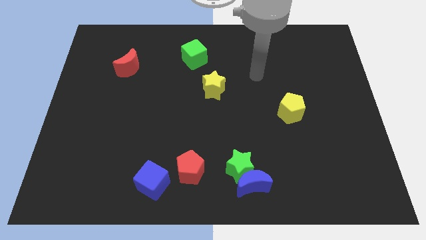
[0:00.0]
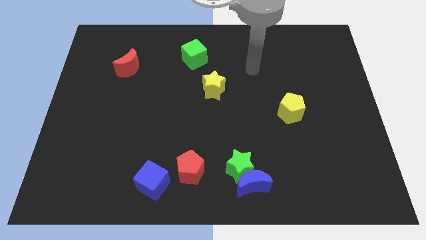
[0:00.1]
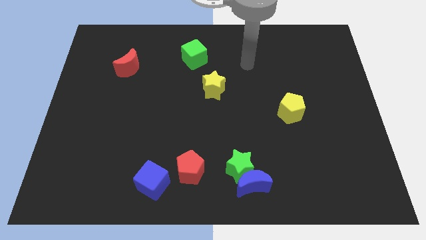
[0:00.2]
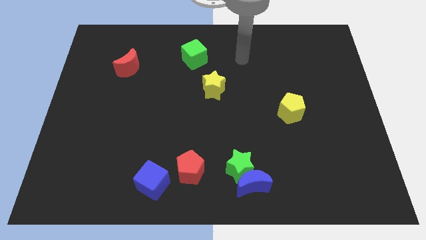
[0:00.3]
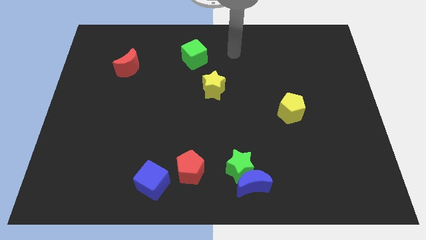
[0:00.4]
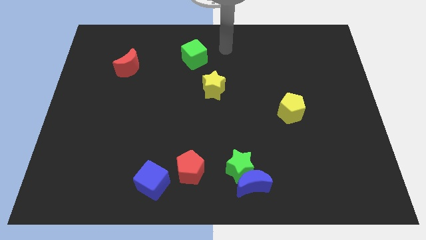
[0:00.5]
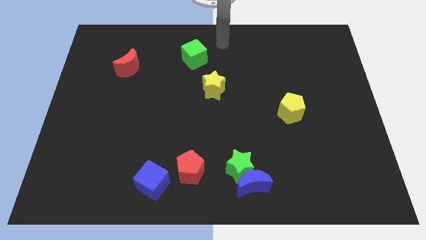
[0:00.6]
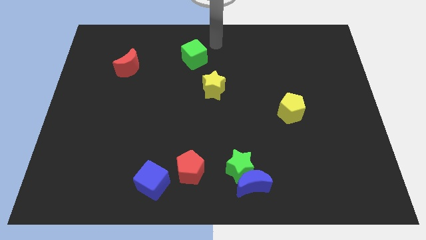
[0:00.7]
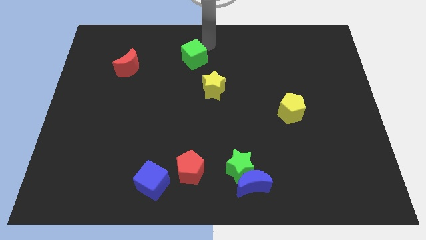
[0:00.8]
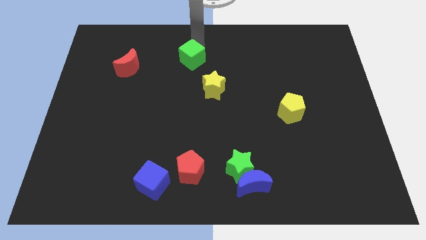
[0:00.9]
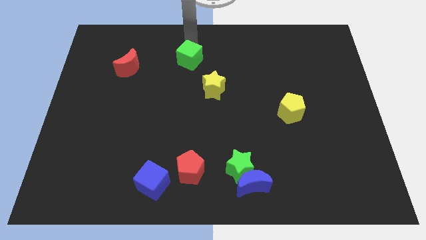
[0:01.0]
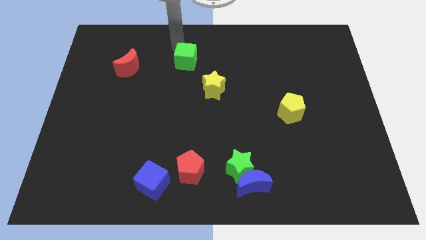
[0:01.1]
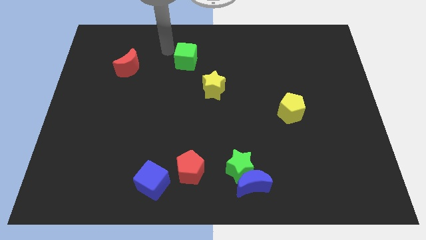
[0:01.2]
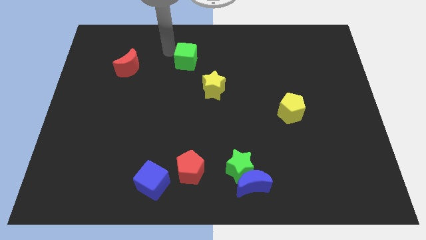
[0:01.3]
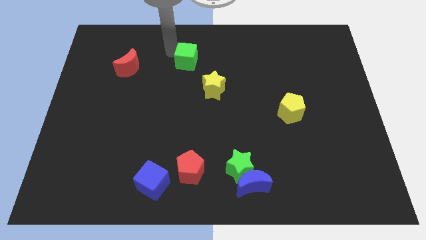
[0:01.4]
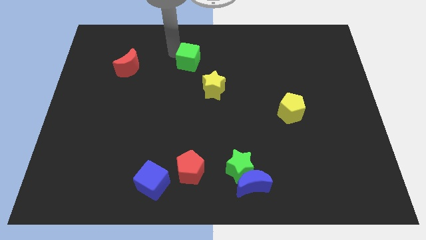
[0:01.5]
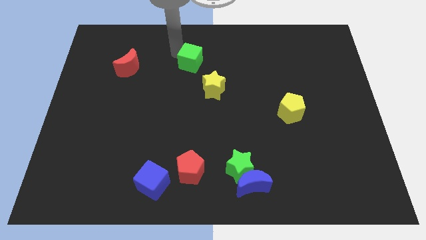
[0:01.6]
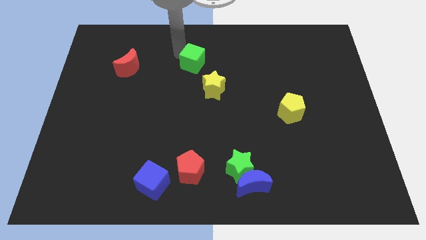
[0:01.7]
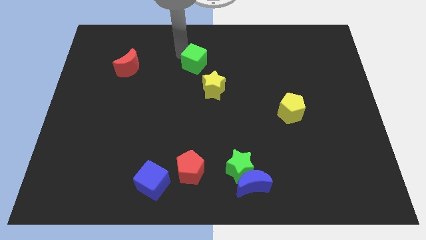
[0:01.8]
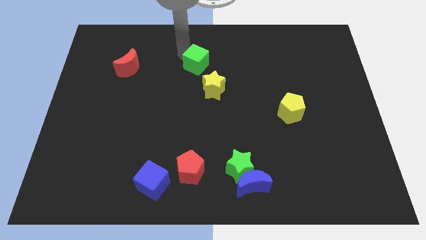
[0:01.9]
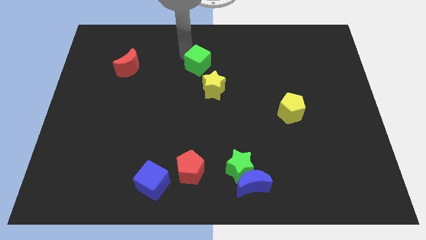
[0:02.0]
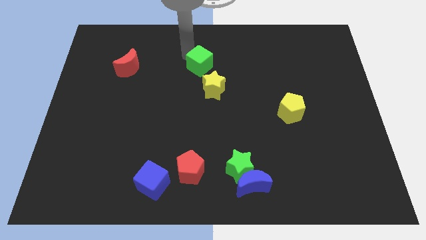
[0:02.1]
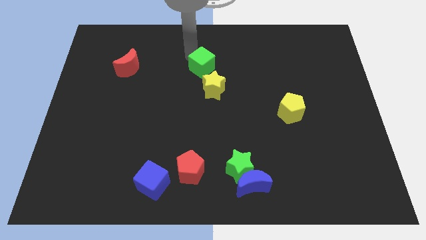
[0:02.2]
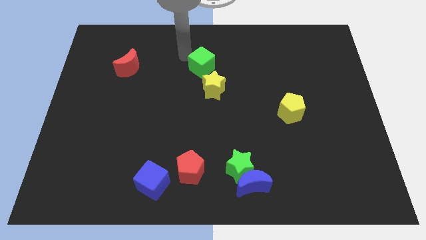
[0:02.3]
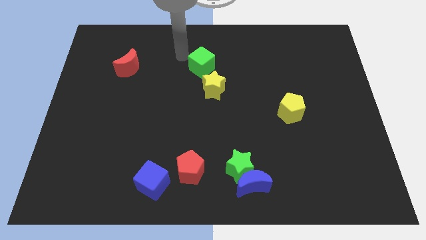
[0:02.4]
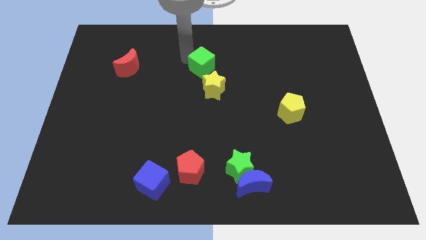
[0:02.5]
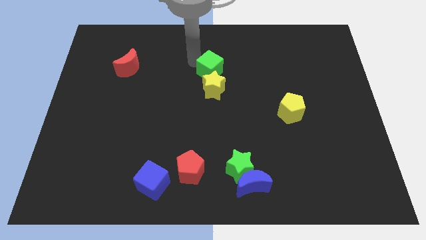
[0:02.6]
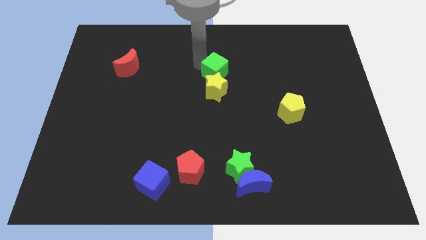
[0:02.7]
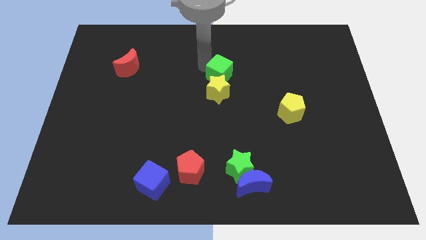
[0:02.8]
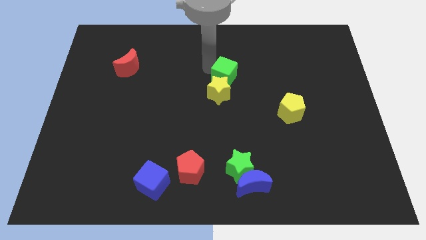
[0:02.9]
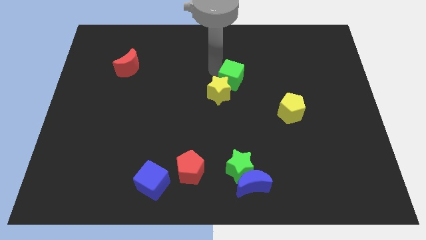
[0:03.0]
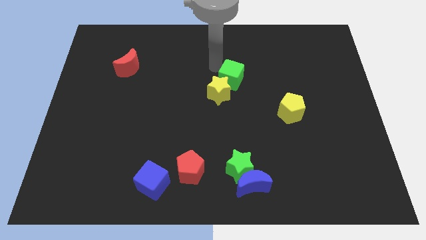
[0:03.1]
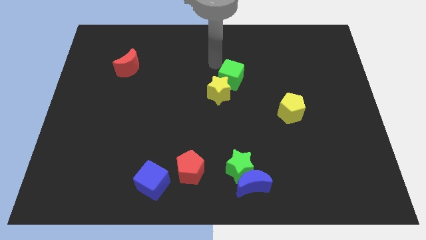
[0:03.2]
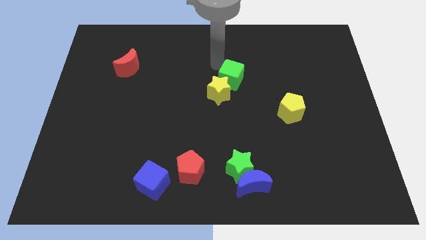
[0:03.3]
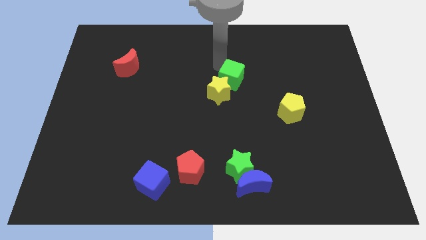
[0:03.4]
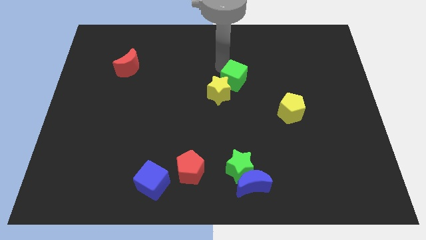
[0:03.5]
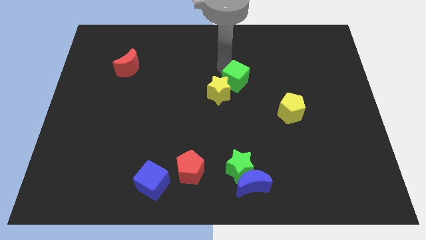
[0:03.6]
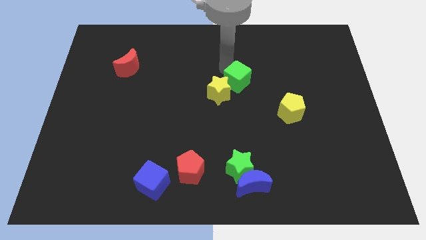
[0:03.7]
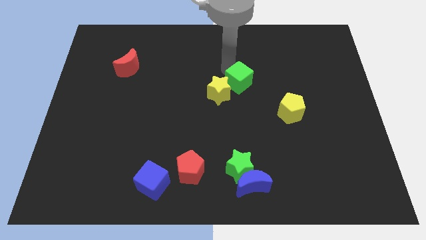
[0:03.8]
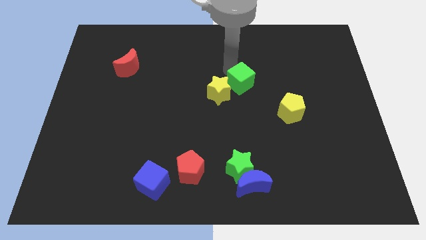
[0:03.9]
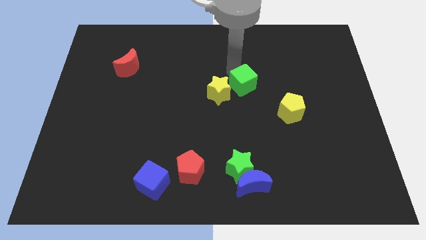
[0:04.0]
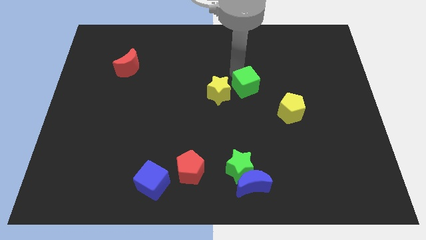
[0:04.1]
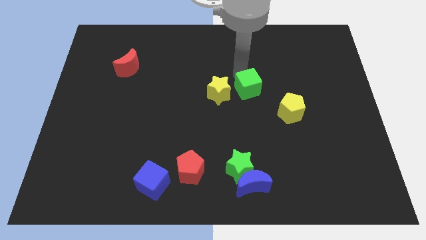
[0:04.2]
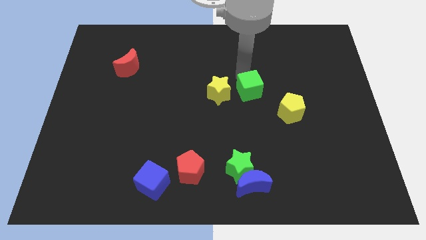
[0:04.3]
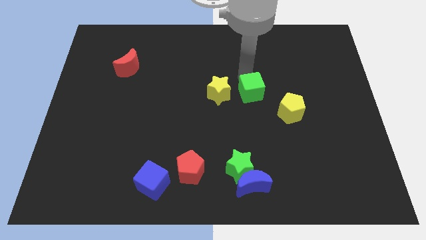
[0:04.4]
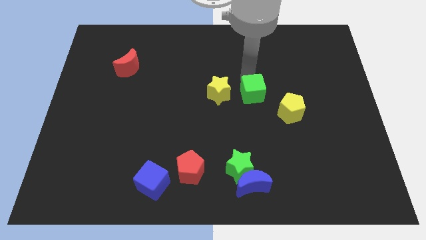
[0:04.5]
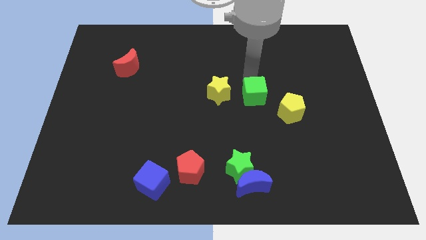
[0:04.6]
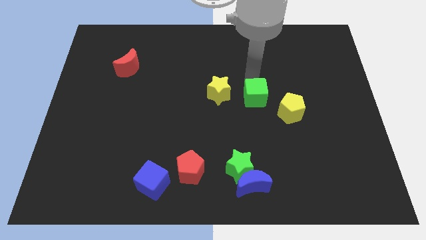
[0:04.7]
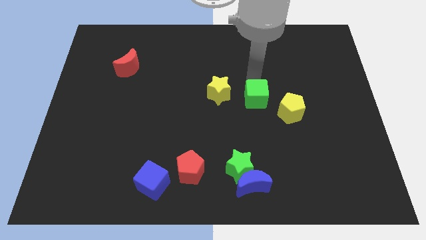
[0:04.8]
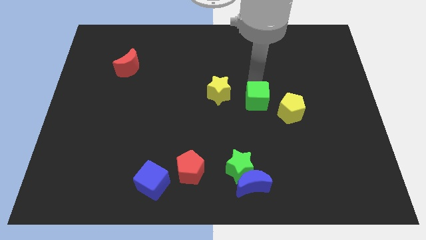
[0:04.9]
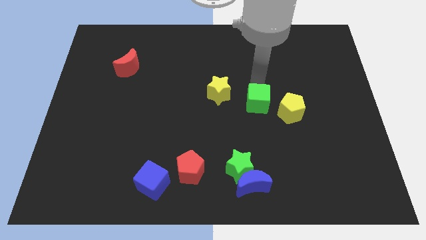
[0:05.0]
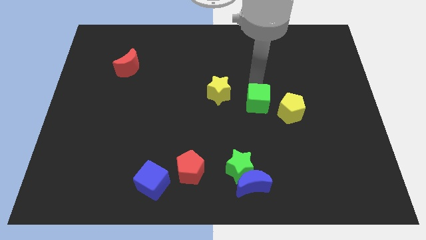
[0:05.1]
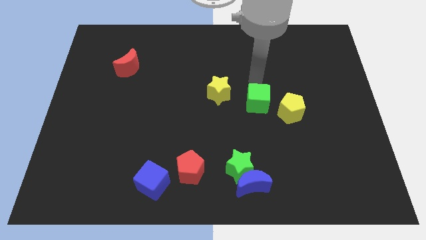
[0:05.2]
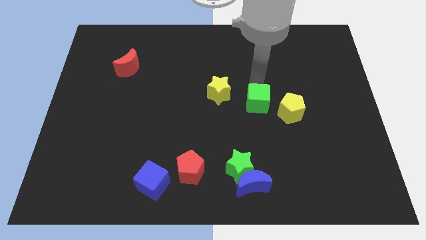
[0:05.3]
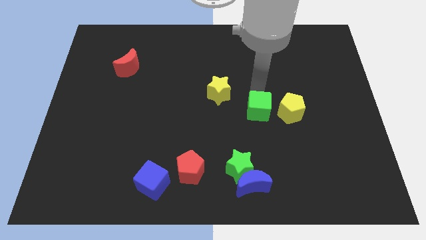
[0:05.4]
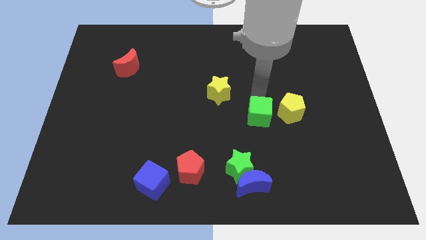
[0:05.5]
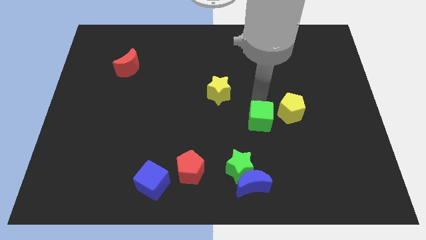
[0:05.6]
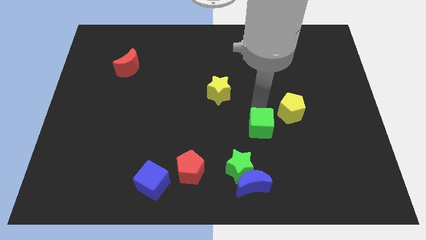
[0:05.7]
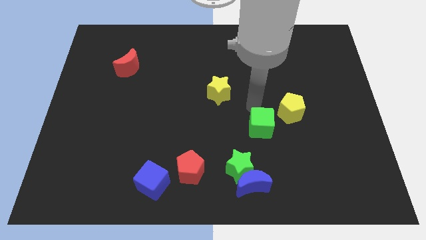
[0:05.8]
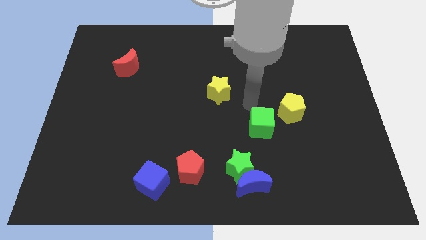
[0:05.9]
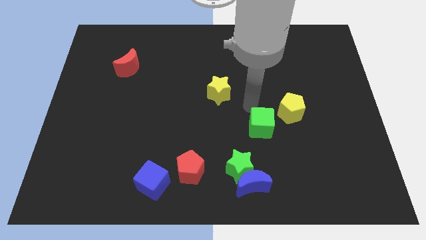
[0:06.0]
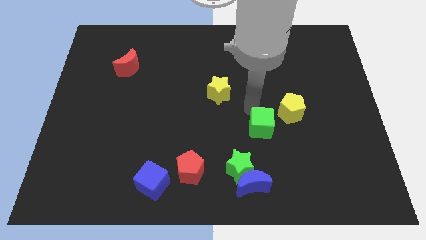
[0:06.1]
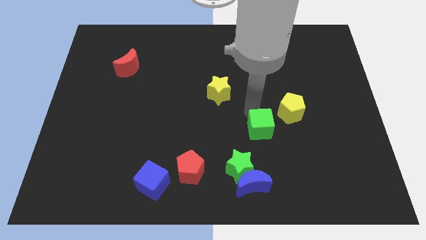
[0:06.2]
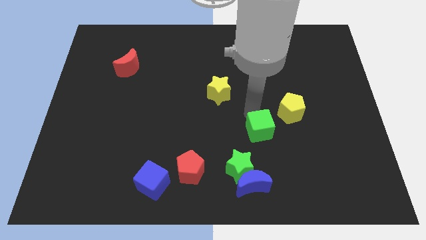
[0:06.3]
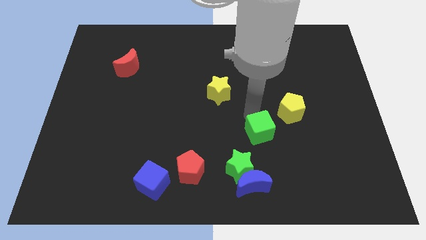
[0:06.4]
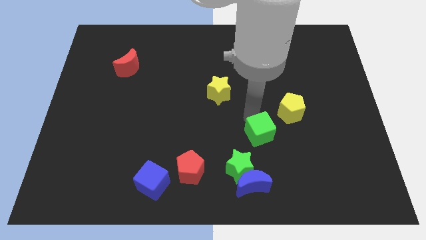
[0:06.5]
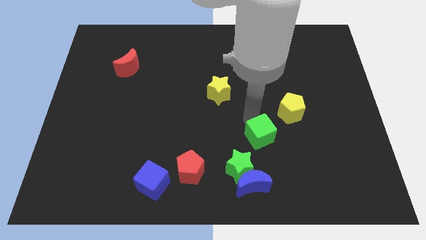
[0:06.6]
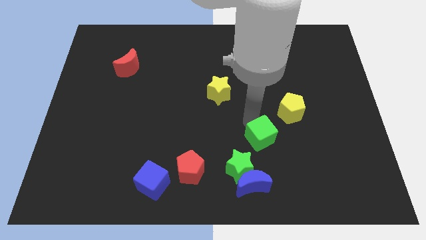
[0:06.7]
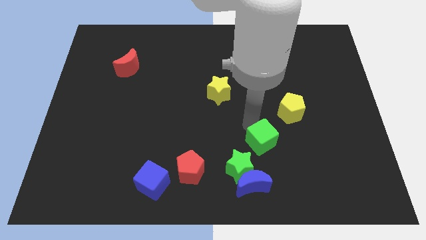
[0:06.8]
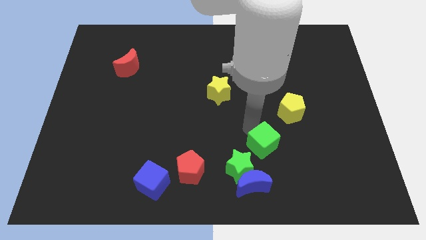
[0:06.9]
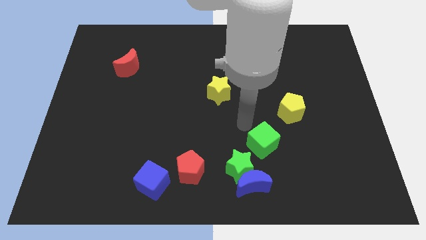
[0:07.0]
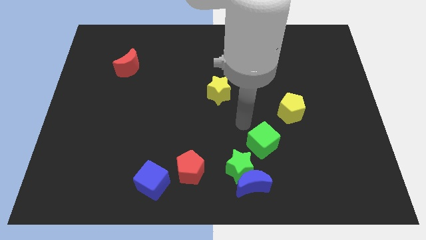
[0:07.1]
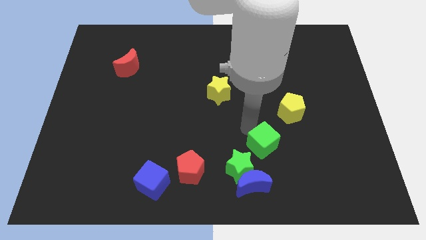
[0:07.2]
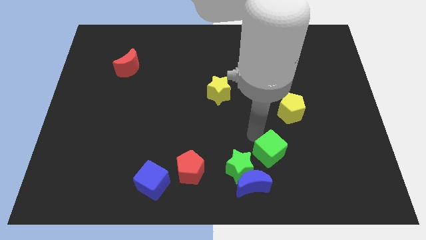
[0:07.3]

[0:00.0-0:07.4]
push the green cube to the right of the green star
